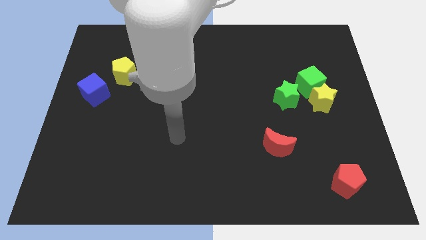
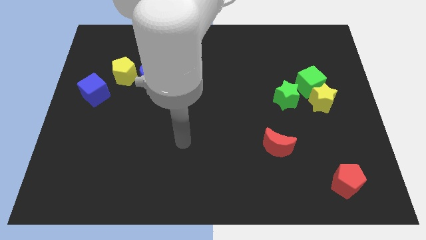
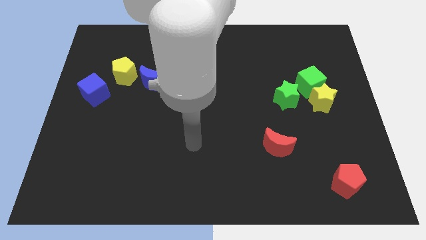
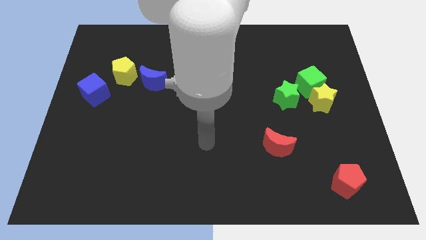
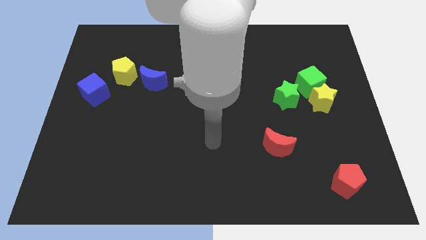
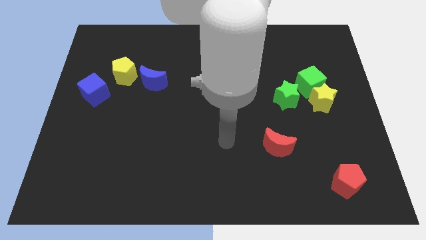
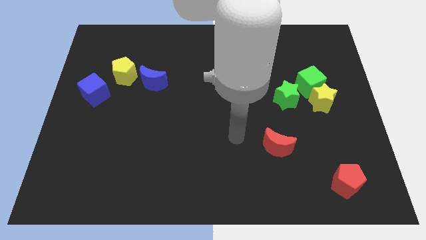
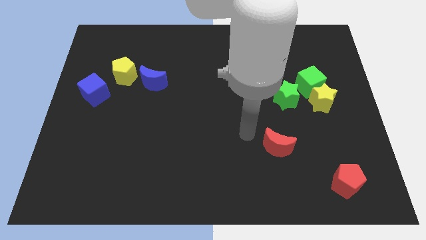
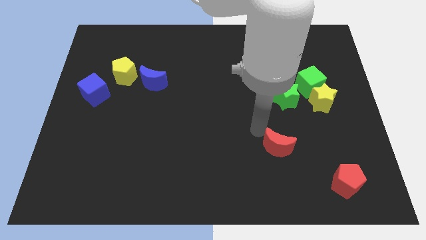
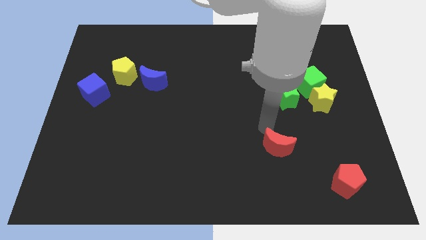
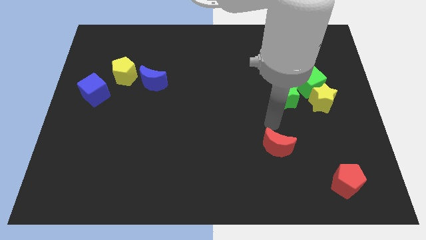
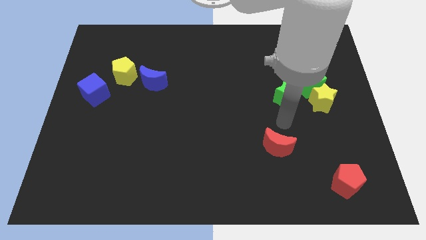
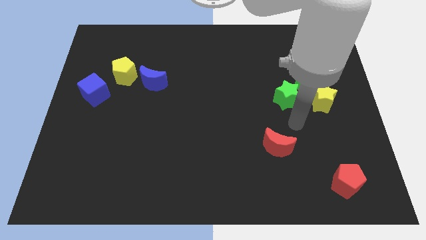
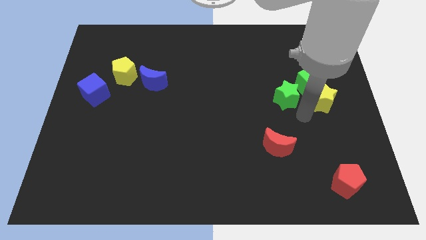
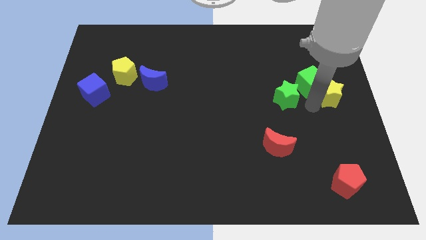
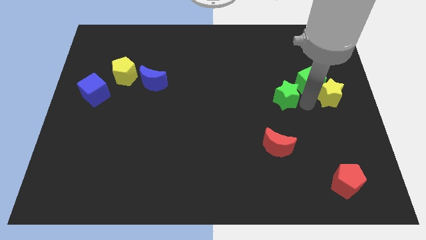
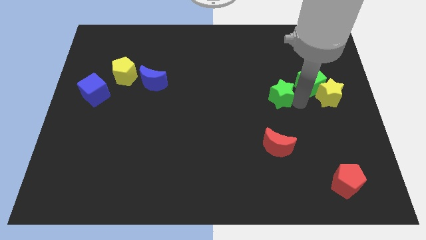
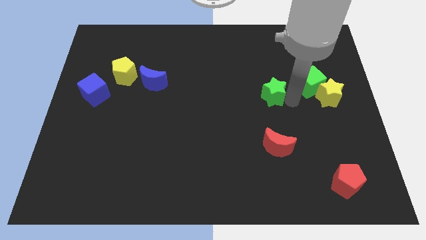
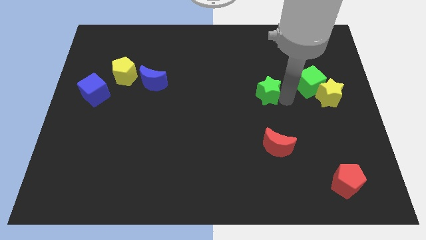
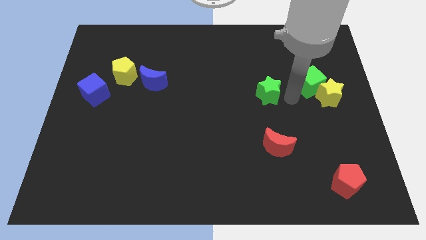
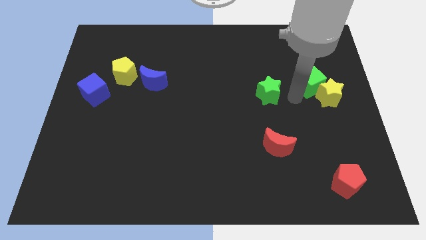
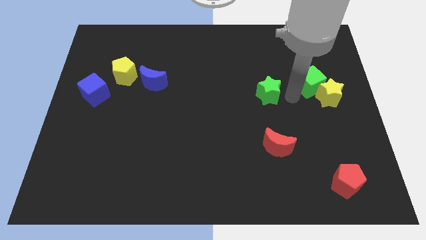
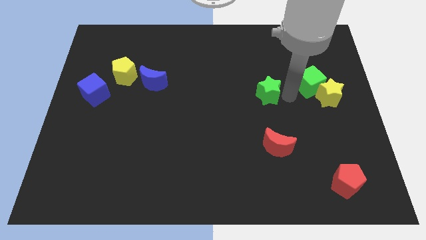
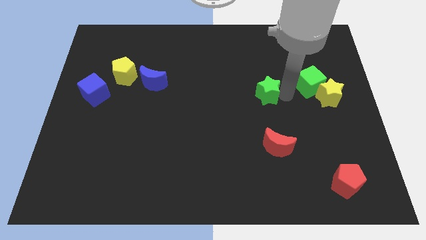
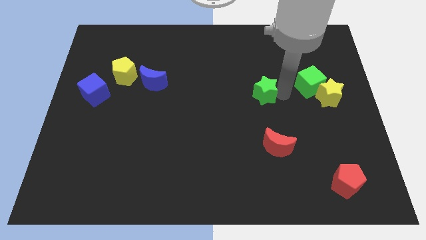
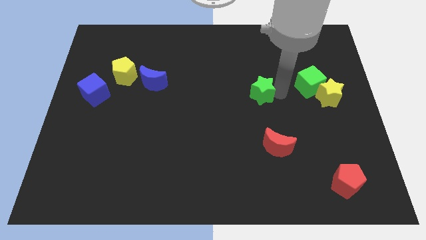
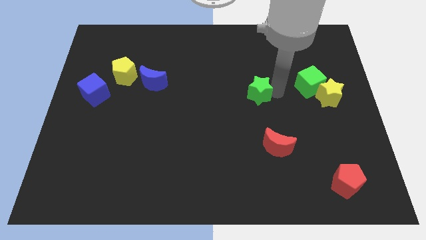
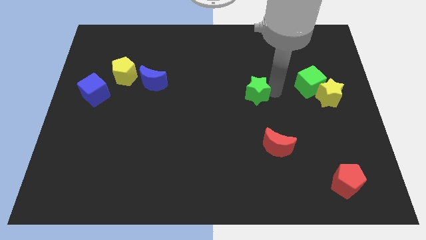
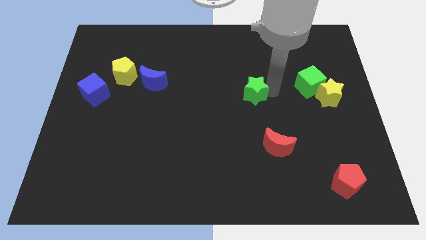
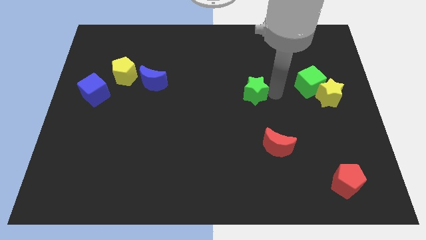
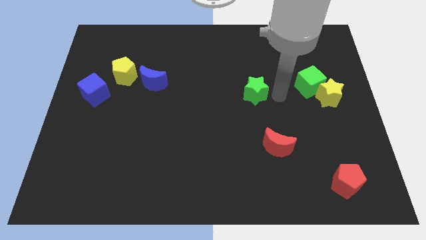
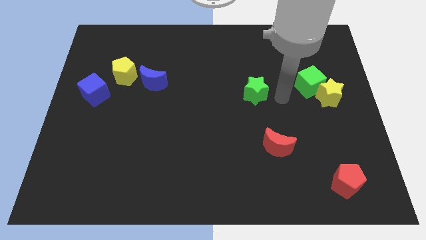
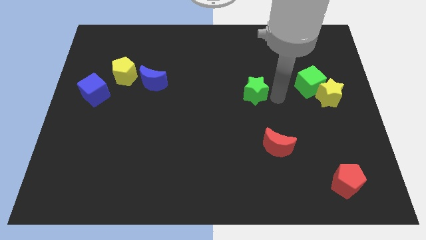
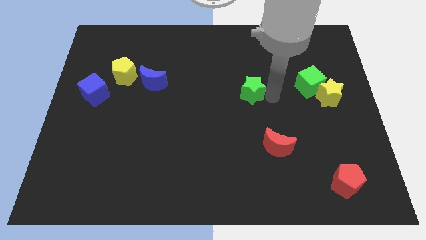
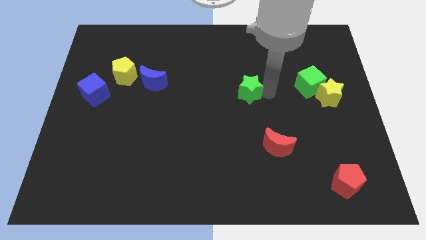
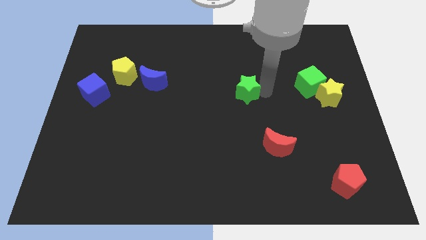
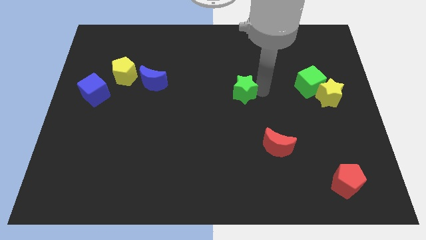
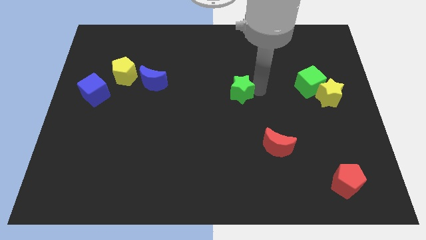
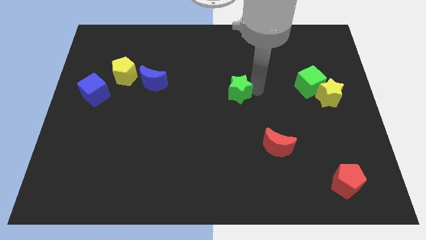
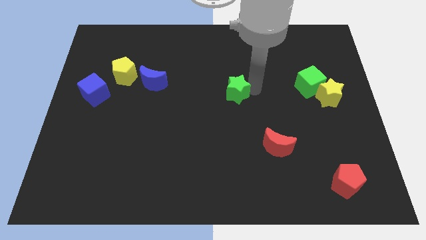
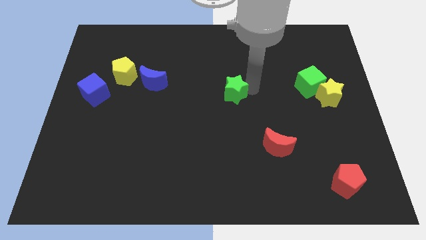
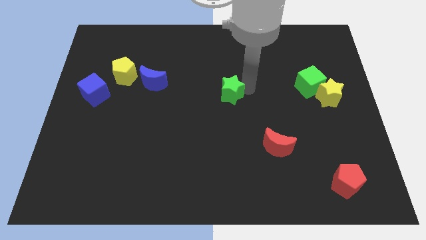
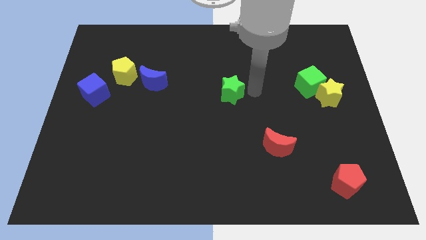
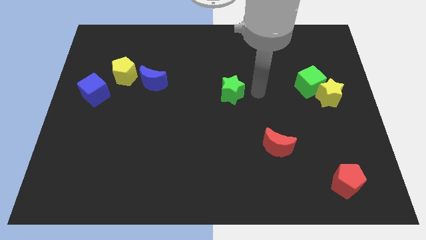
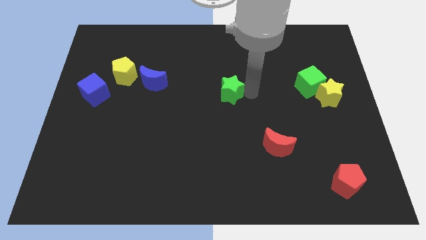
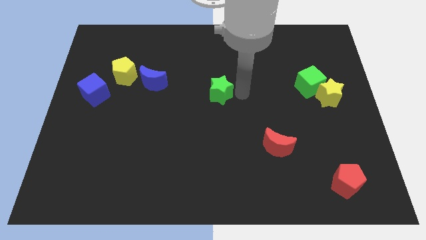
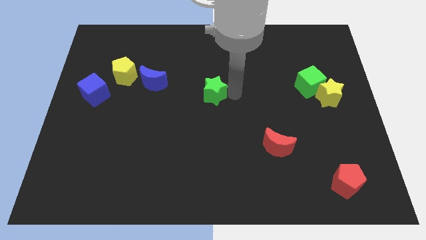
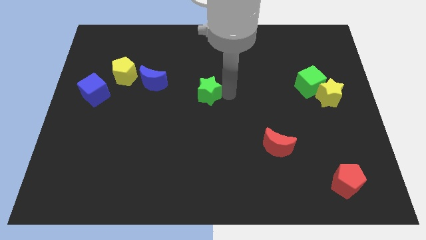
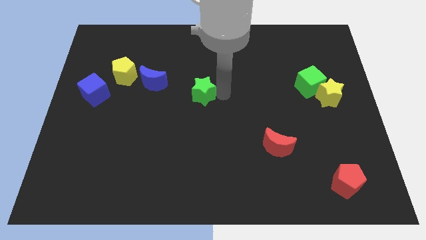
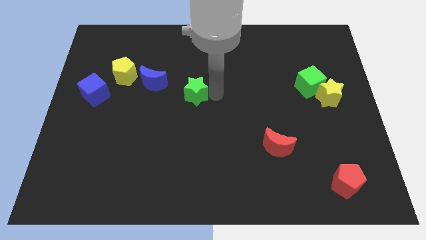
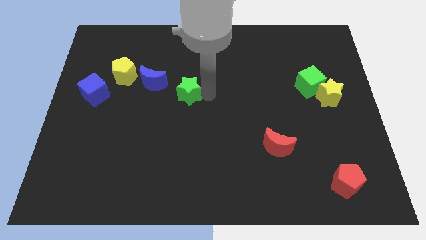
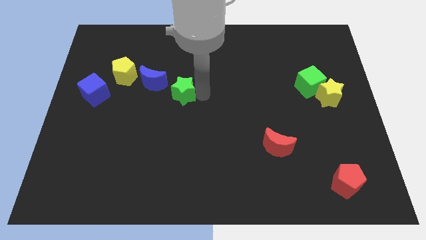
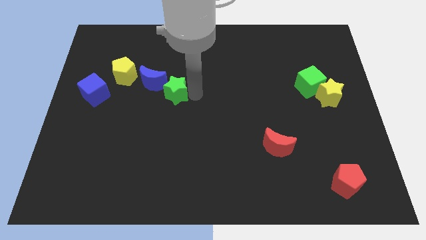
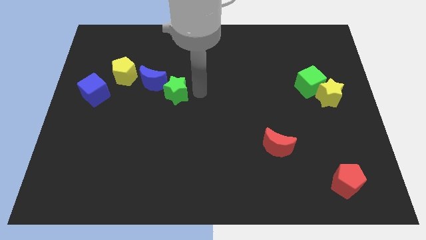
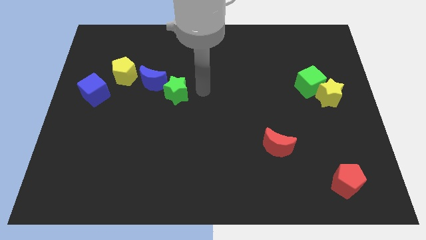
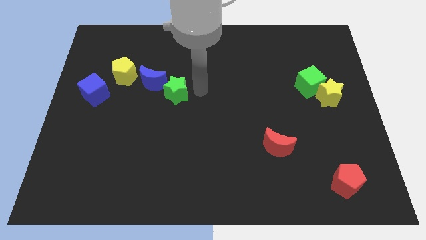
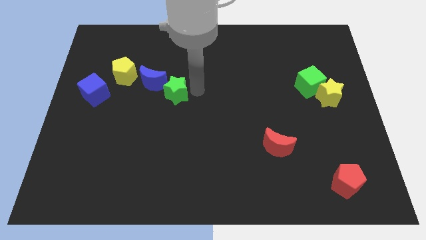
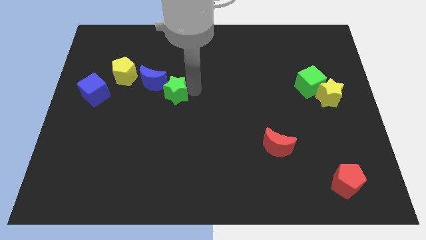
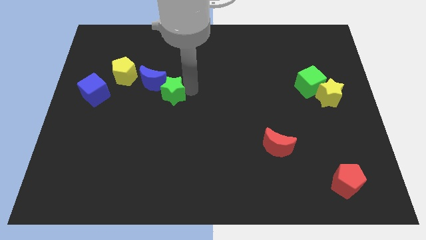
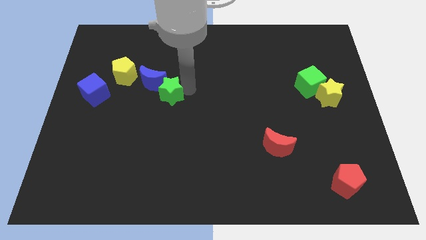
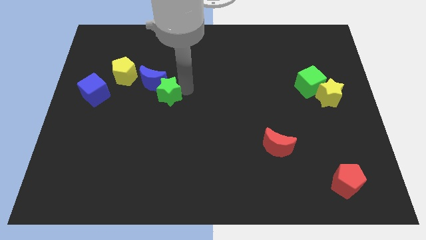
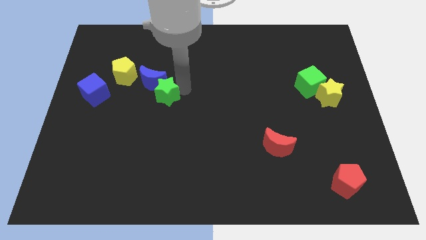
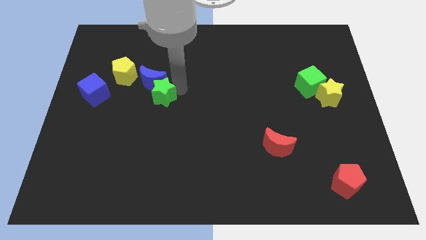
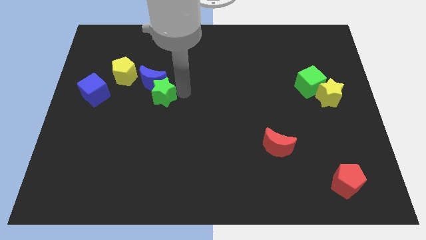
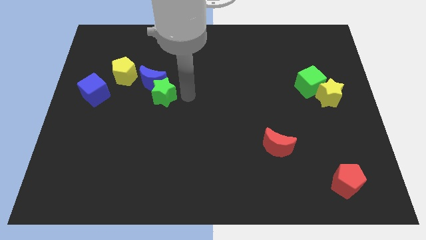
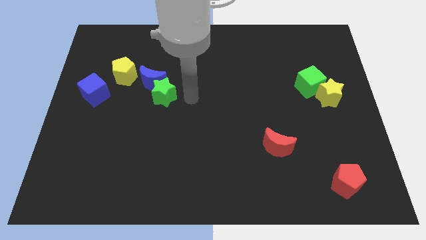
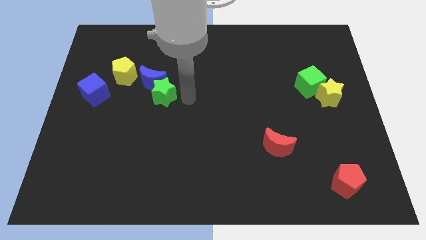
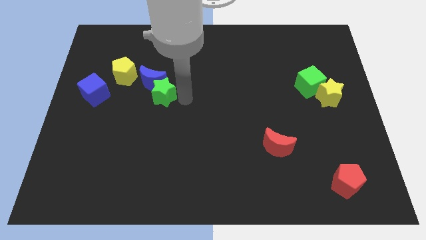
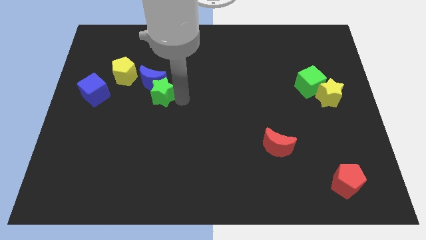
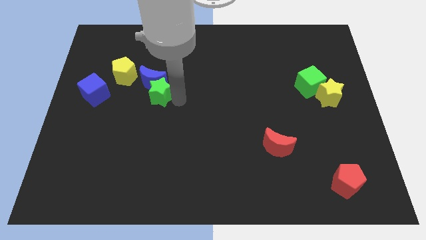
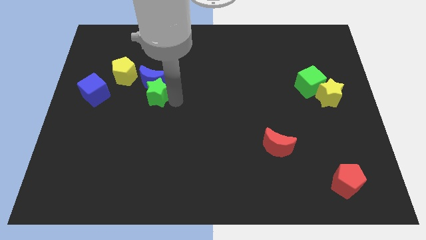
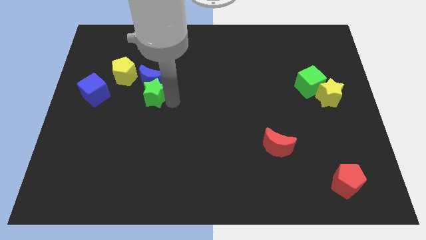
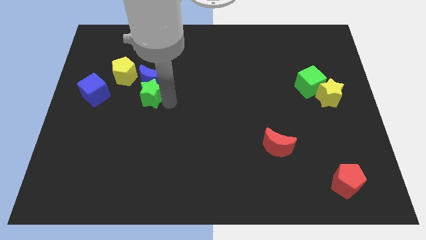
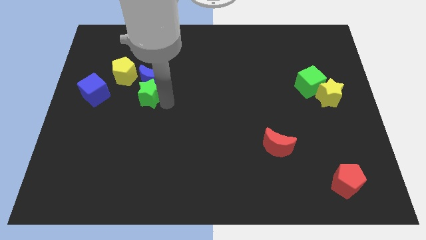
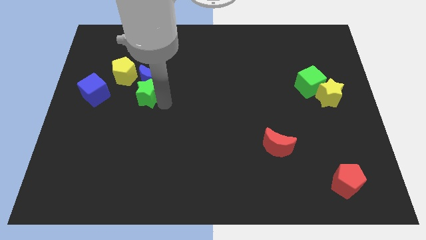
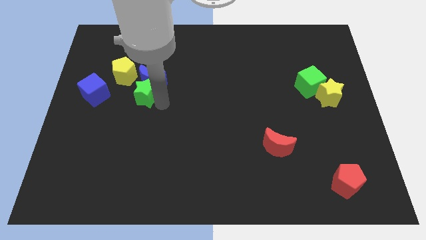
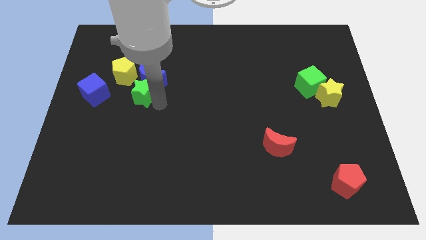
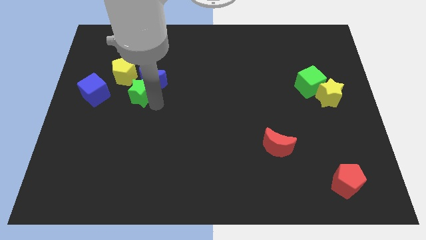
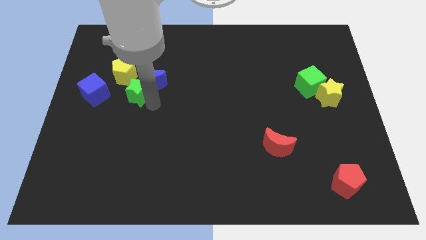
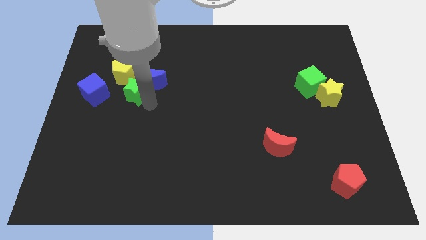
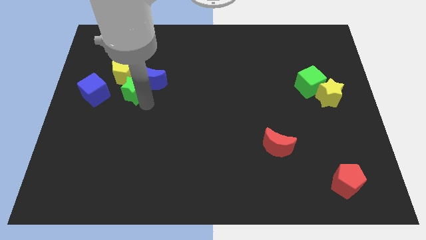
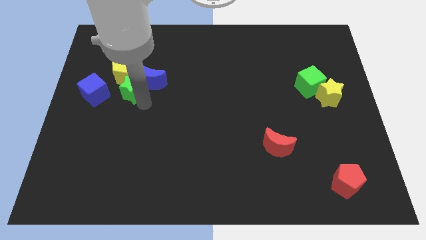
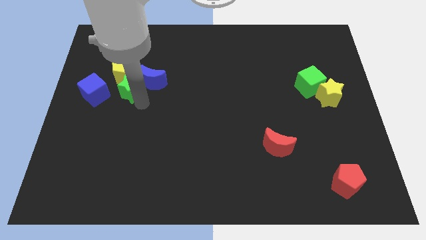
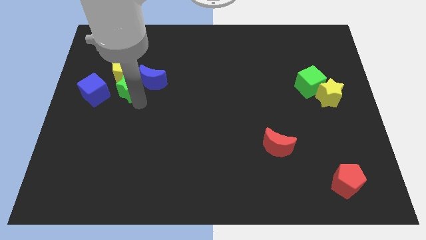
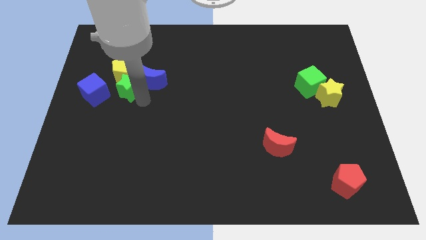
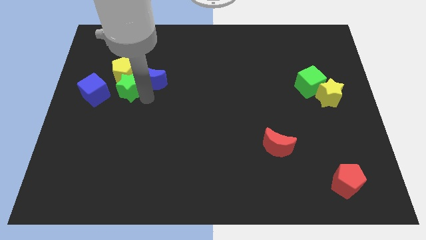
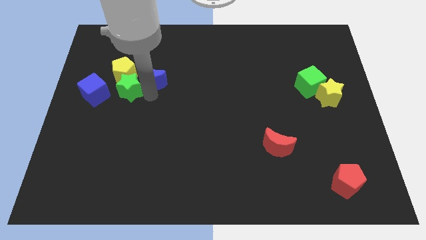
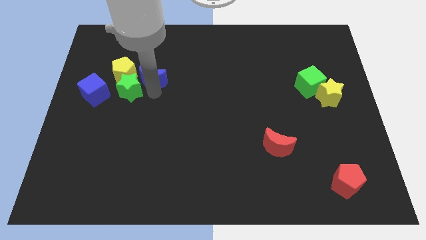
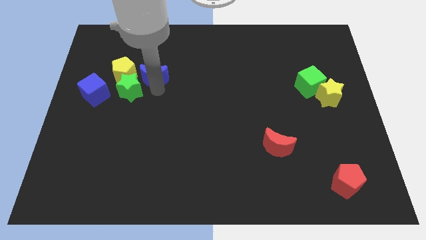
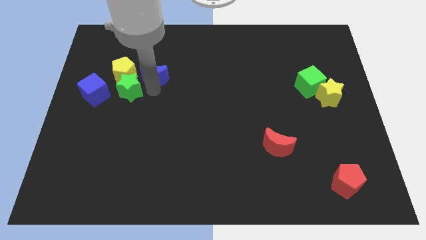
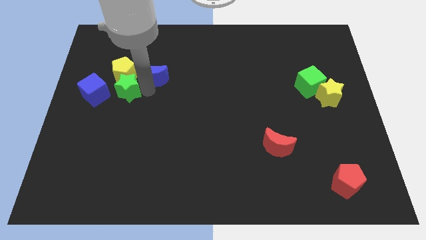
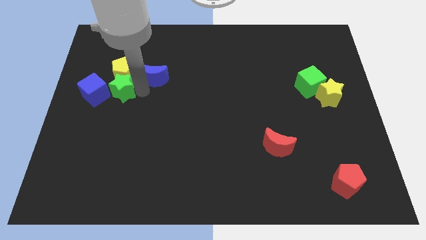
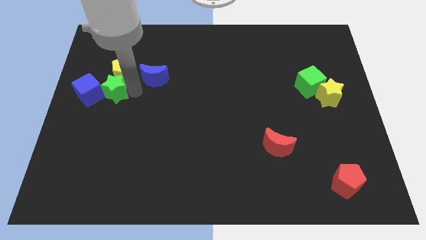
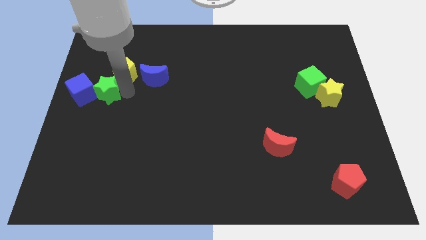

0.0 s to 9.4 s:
put the green star towards the blue cube
